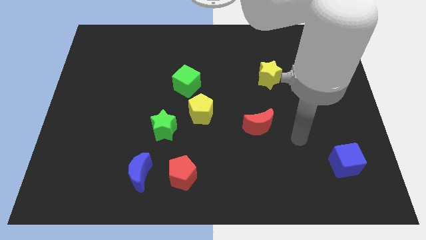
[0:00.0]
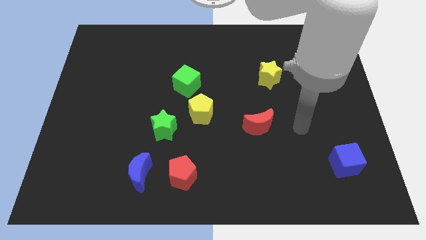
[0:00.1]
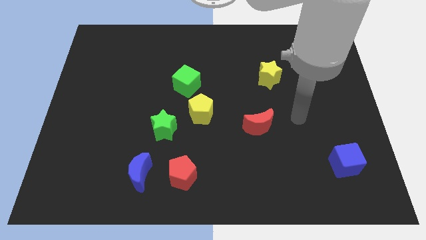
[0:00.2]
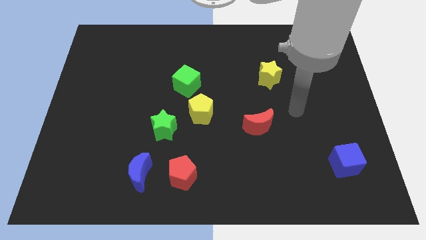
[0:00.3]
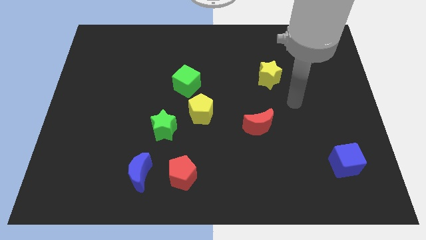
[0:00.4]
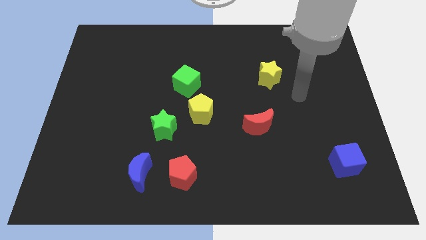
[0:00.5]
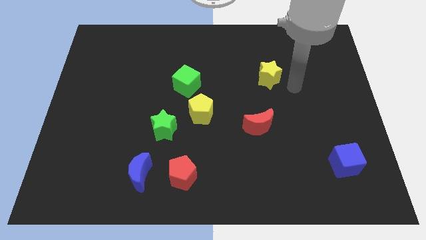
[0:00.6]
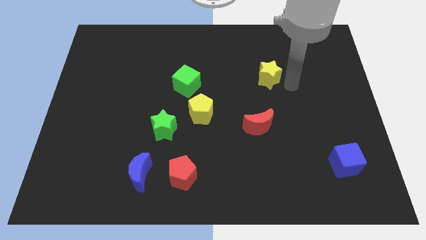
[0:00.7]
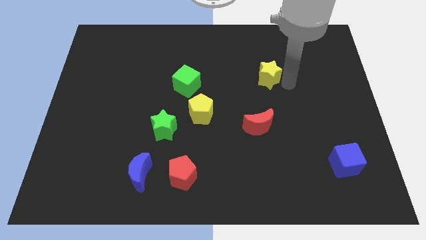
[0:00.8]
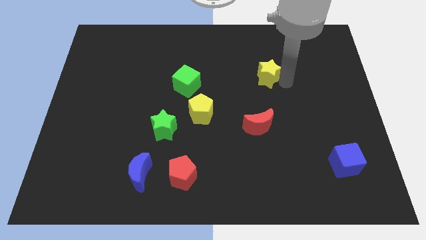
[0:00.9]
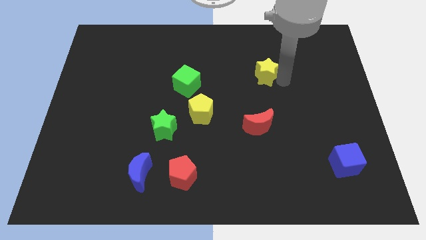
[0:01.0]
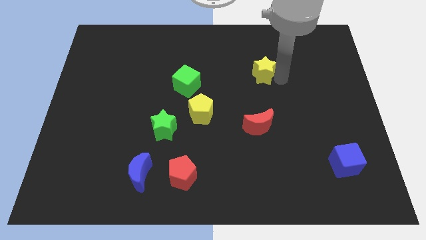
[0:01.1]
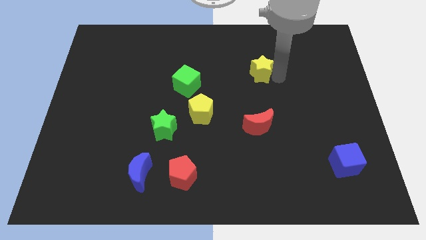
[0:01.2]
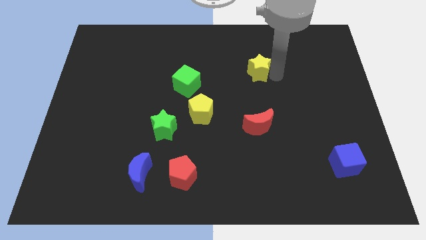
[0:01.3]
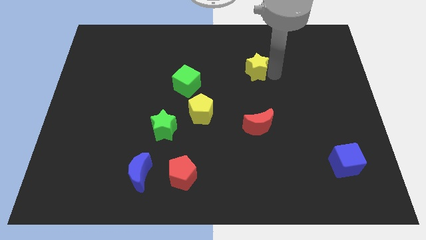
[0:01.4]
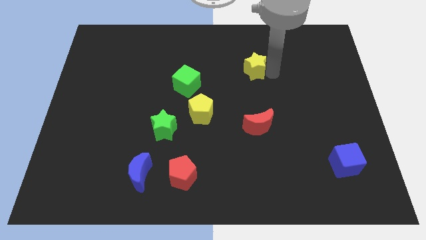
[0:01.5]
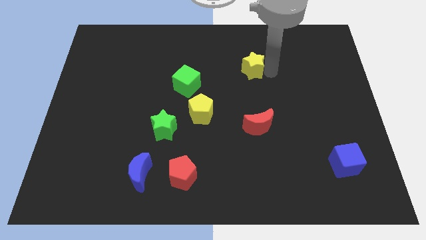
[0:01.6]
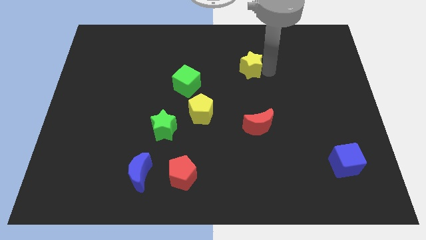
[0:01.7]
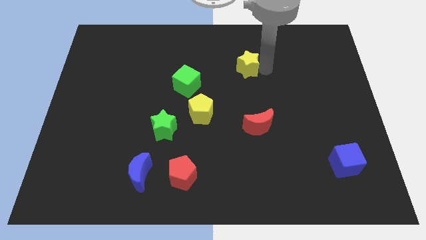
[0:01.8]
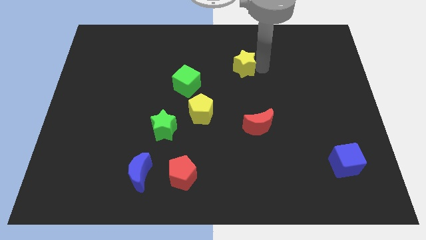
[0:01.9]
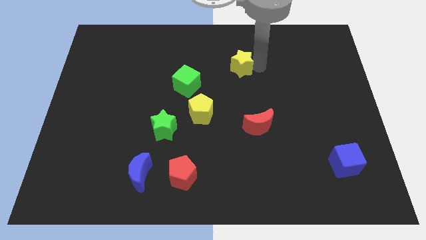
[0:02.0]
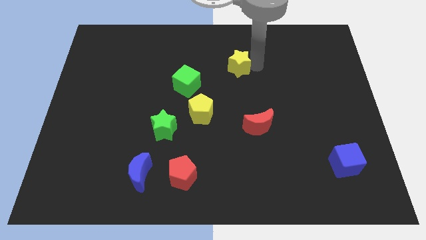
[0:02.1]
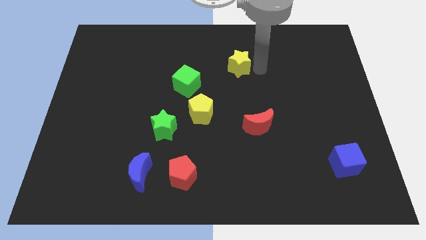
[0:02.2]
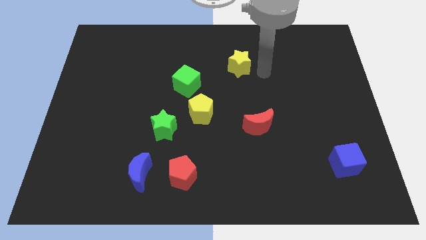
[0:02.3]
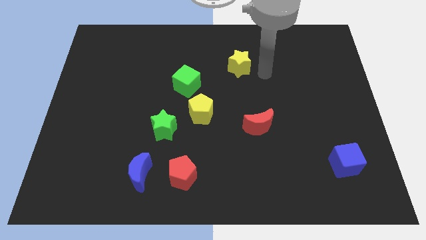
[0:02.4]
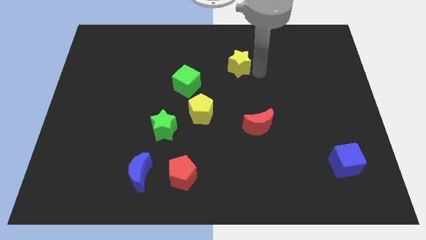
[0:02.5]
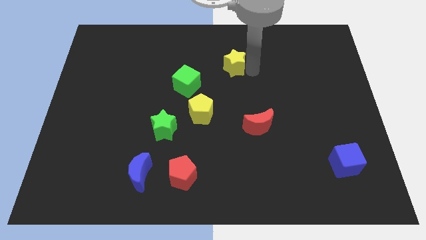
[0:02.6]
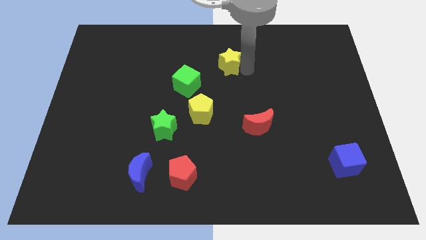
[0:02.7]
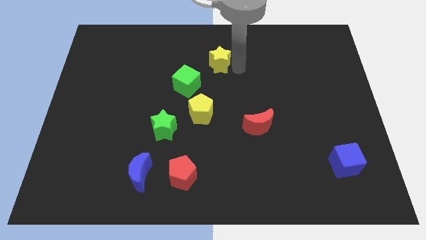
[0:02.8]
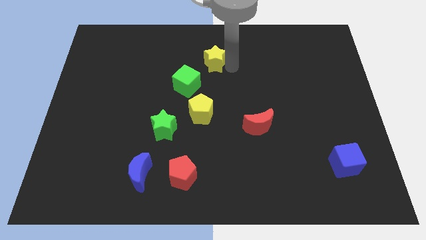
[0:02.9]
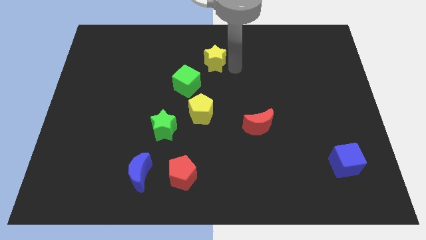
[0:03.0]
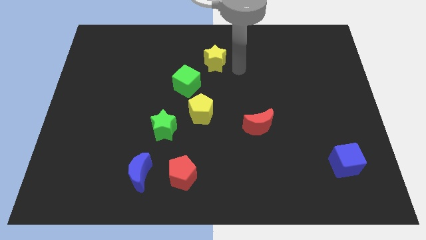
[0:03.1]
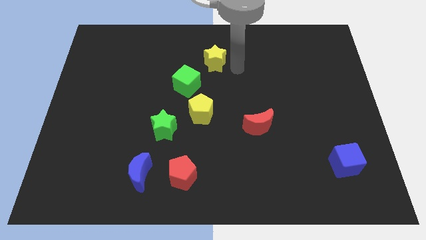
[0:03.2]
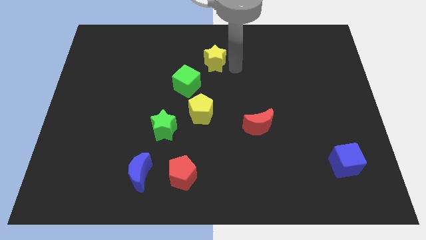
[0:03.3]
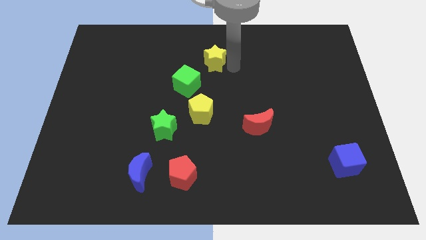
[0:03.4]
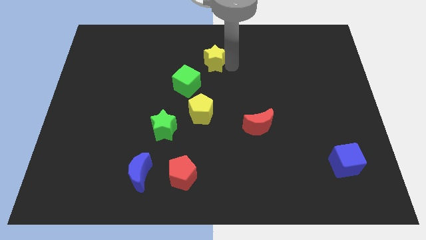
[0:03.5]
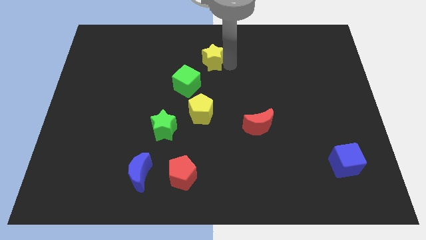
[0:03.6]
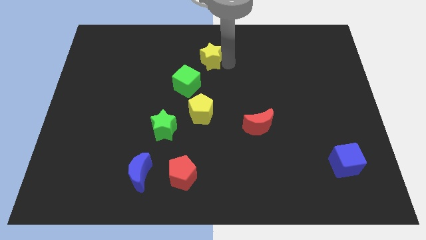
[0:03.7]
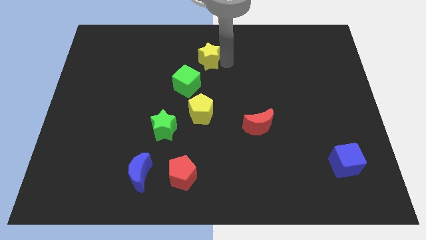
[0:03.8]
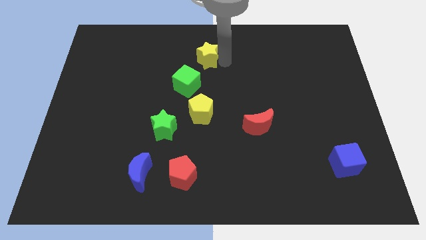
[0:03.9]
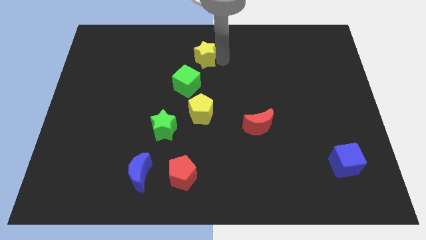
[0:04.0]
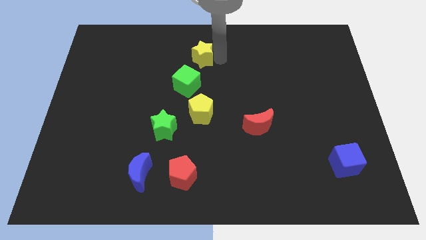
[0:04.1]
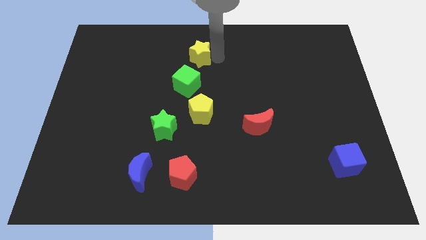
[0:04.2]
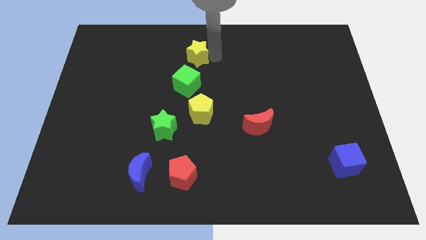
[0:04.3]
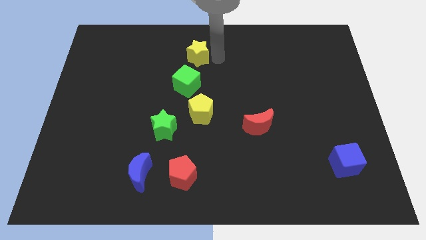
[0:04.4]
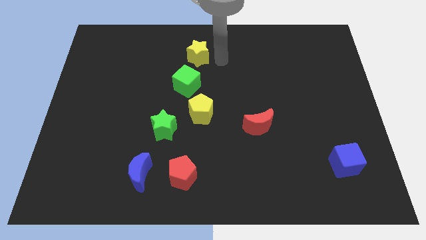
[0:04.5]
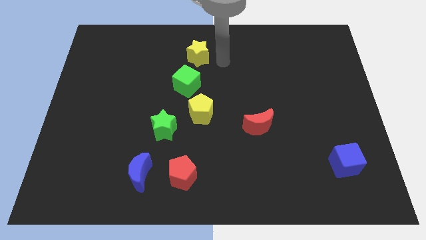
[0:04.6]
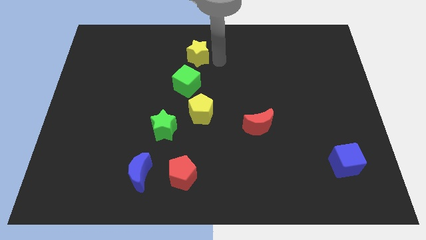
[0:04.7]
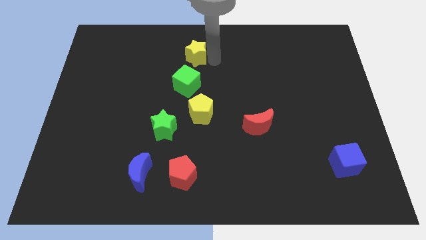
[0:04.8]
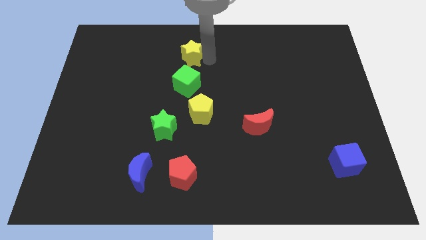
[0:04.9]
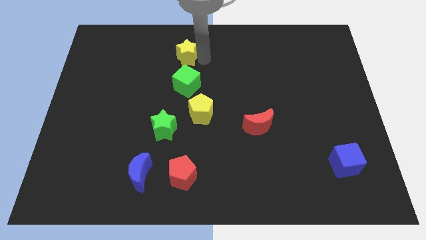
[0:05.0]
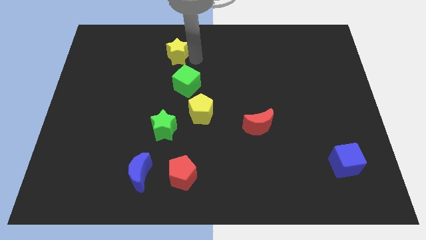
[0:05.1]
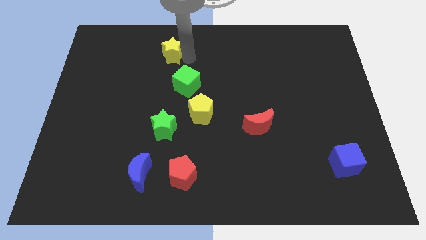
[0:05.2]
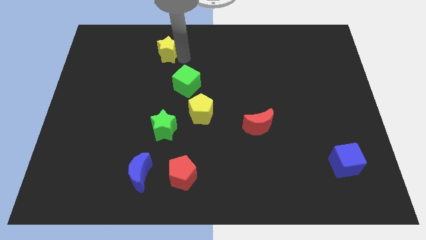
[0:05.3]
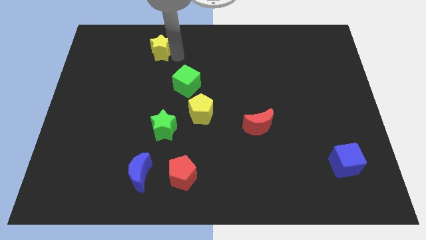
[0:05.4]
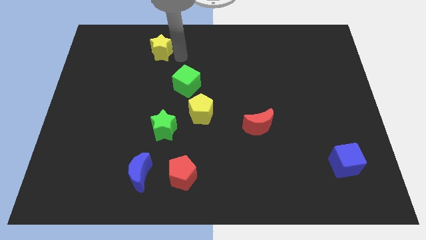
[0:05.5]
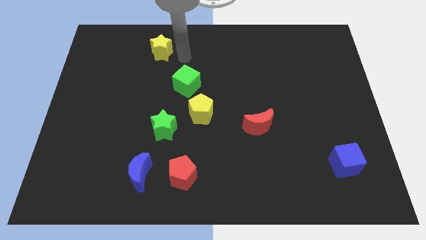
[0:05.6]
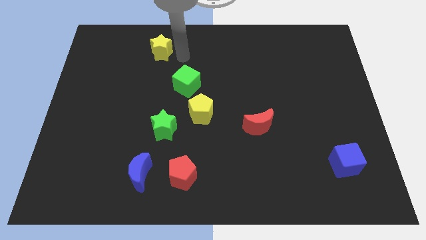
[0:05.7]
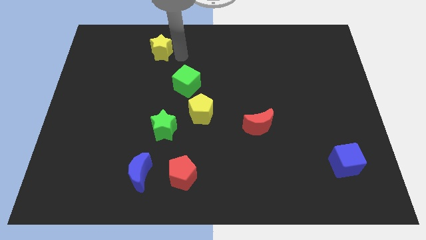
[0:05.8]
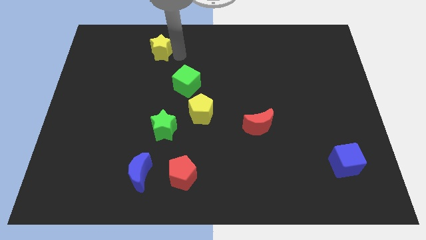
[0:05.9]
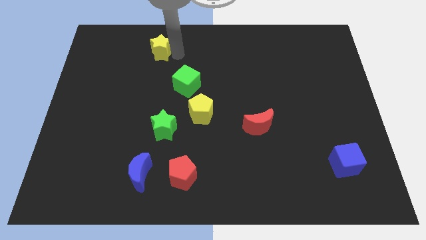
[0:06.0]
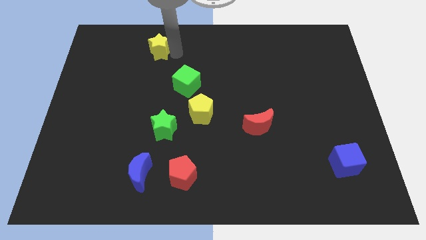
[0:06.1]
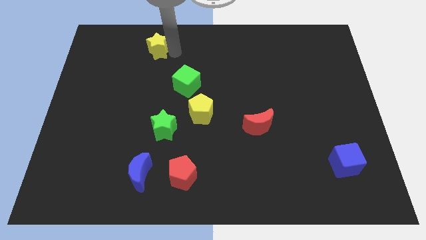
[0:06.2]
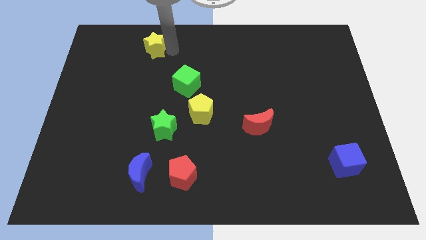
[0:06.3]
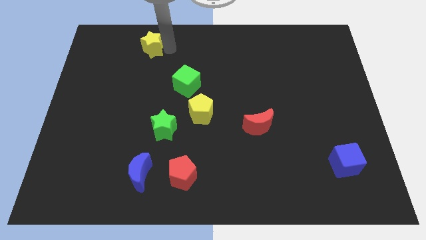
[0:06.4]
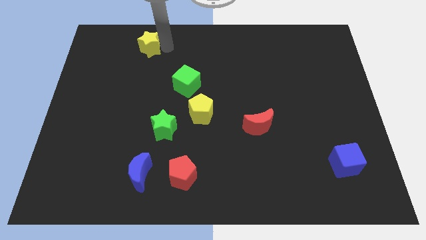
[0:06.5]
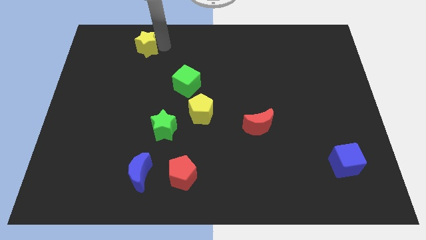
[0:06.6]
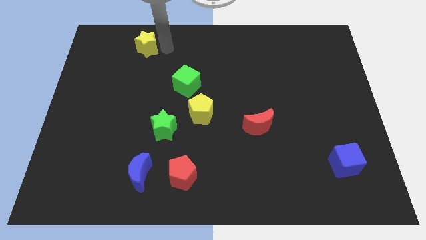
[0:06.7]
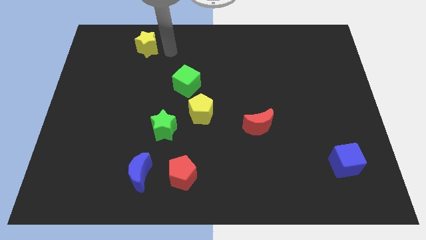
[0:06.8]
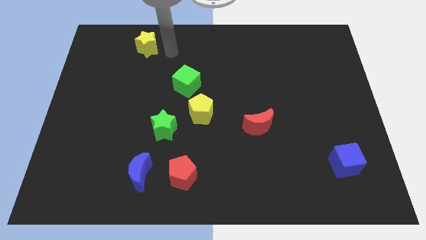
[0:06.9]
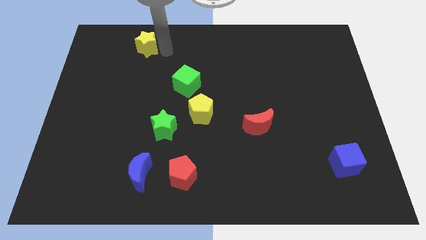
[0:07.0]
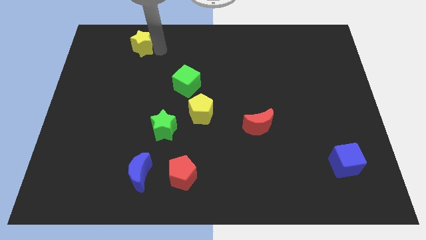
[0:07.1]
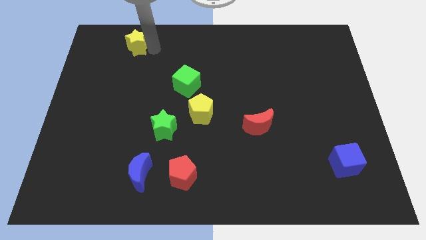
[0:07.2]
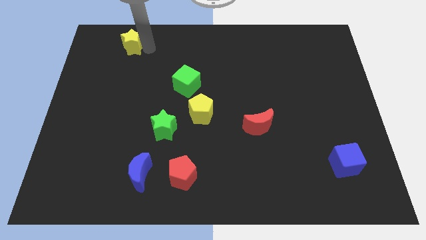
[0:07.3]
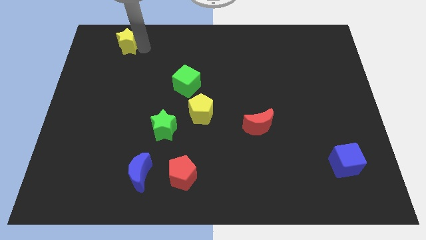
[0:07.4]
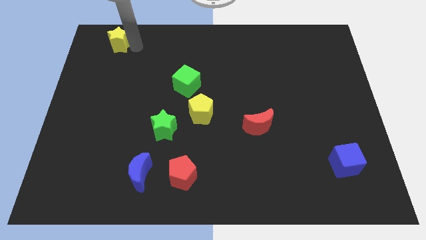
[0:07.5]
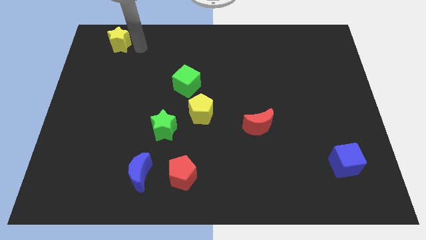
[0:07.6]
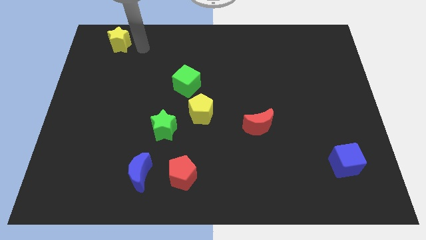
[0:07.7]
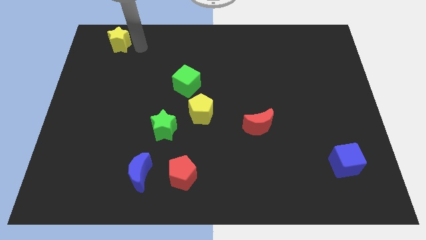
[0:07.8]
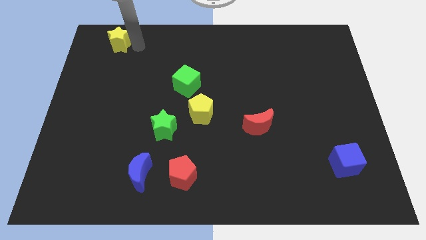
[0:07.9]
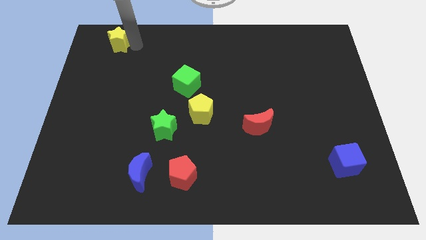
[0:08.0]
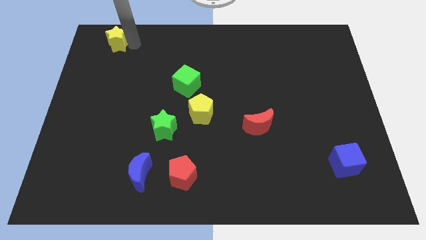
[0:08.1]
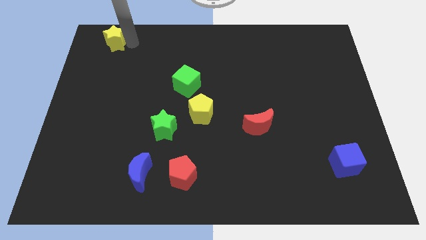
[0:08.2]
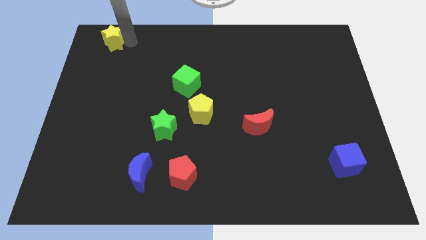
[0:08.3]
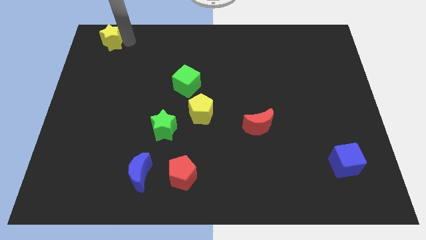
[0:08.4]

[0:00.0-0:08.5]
move the yellow star to the top left of the board
